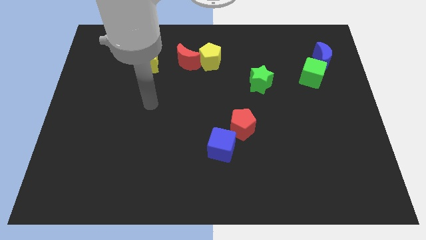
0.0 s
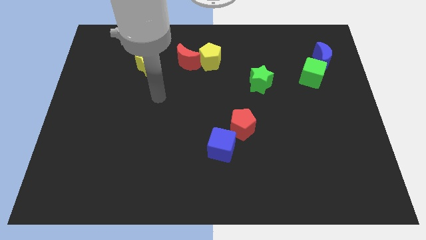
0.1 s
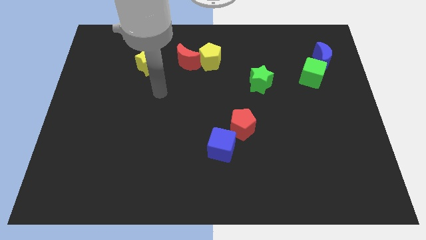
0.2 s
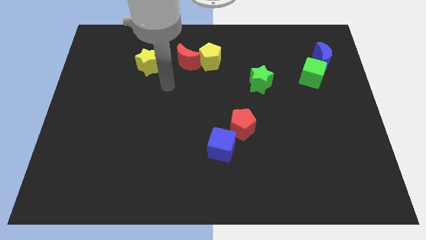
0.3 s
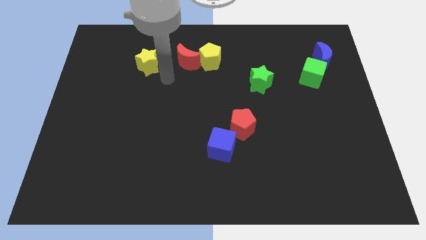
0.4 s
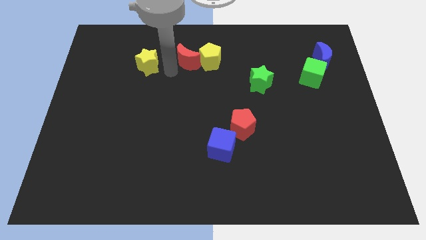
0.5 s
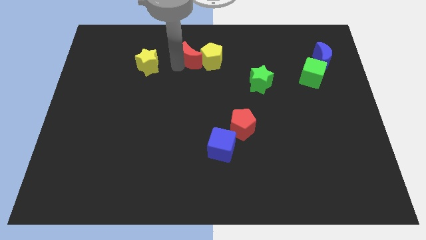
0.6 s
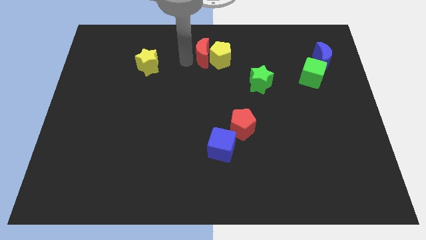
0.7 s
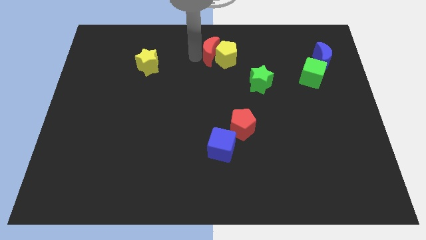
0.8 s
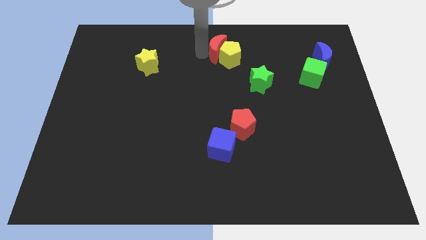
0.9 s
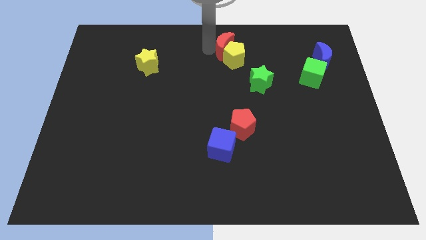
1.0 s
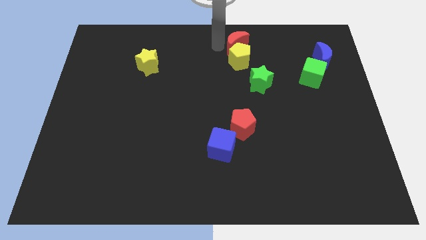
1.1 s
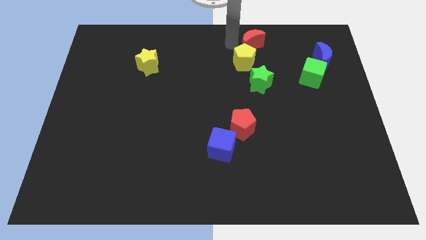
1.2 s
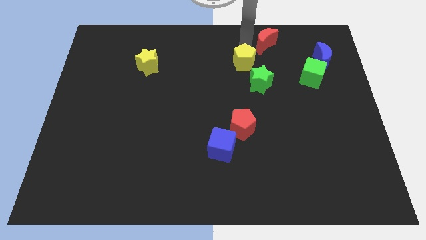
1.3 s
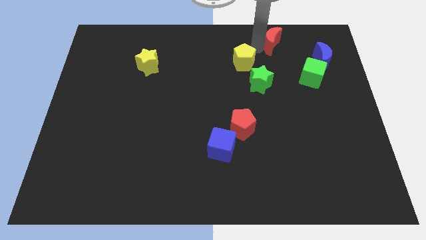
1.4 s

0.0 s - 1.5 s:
pull the yellow pentagon apart from the red moon

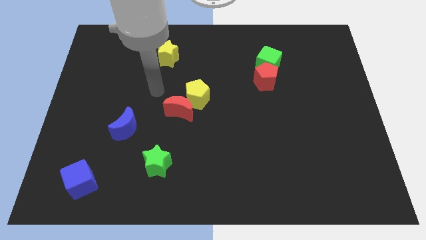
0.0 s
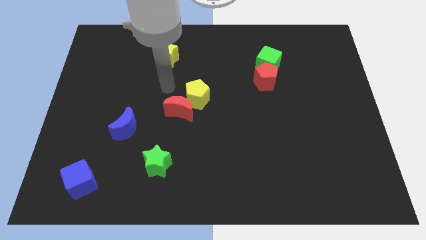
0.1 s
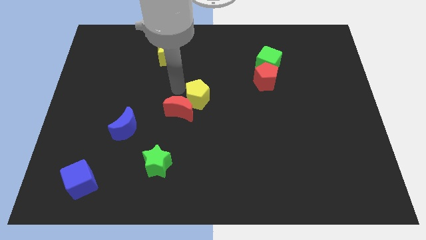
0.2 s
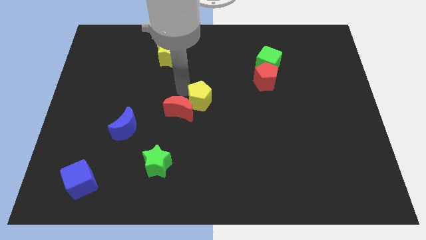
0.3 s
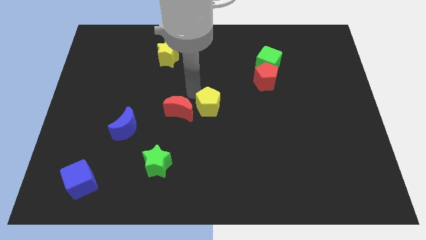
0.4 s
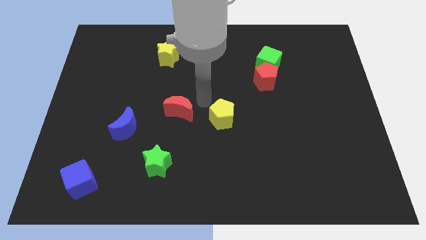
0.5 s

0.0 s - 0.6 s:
pull the red moon apart from the yellow pentagon

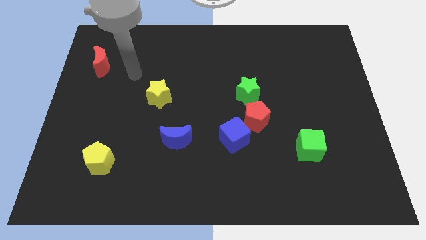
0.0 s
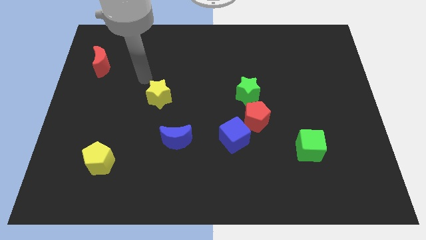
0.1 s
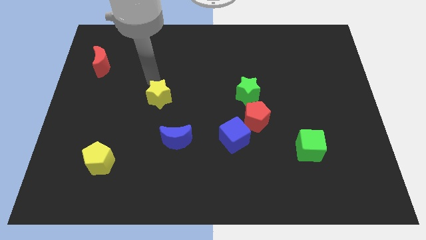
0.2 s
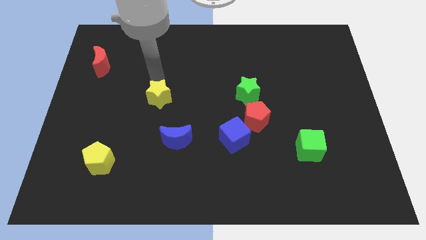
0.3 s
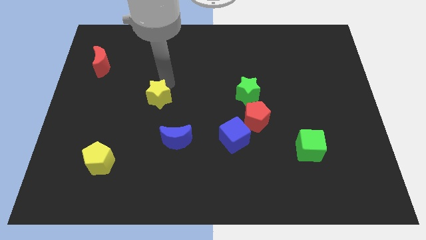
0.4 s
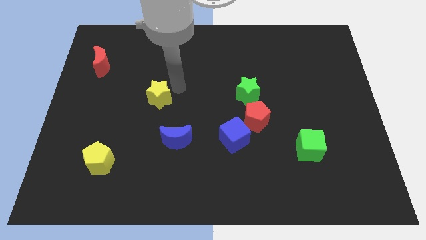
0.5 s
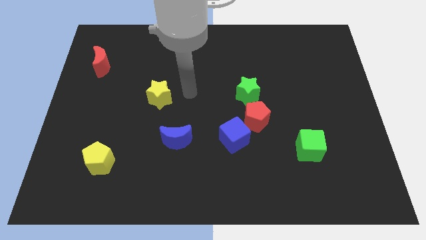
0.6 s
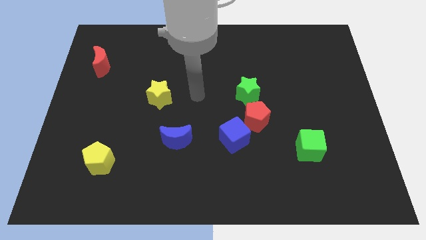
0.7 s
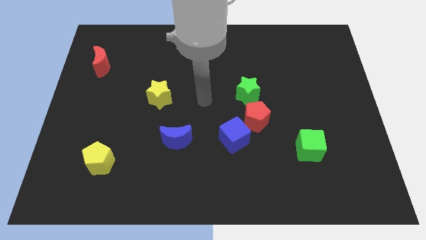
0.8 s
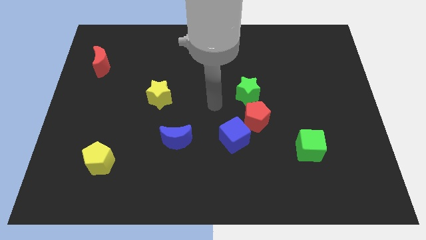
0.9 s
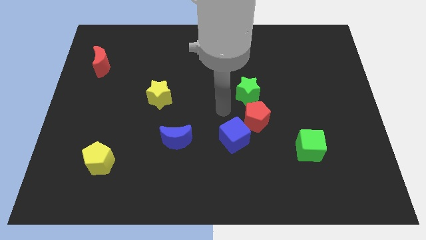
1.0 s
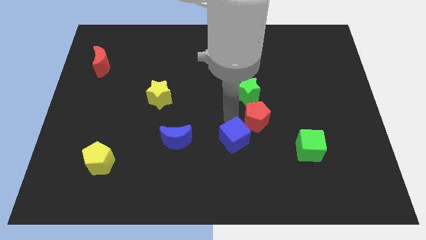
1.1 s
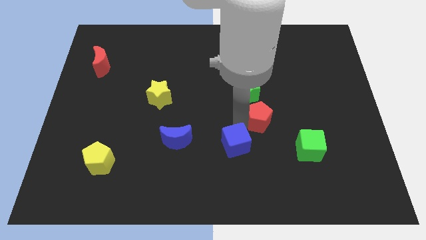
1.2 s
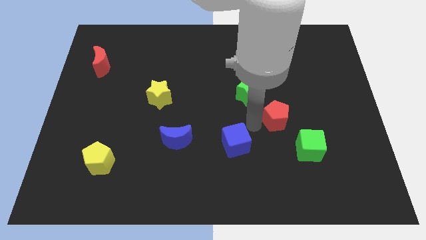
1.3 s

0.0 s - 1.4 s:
move the blue cube away from the red pentagon

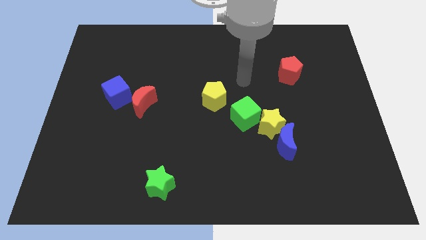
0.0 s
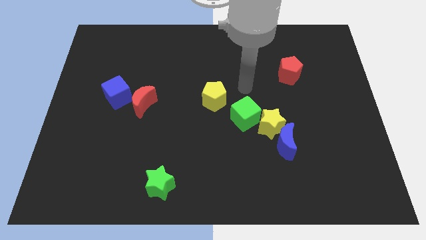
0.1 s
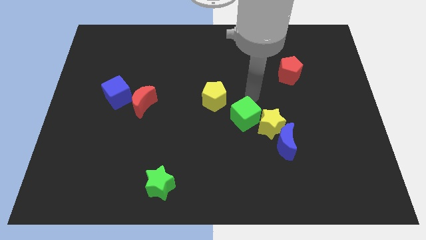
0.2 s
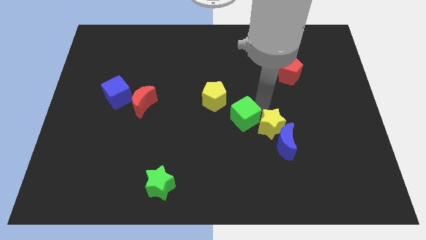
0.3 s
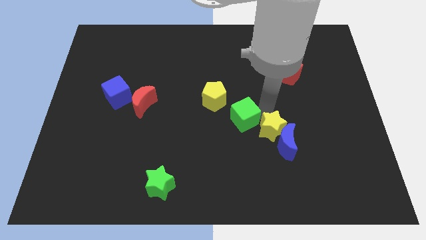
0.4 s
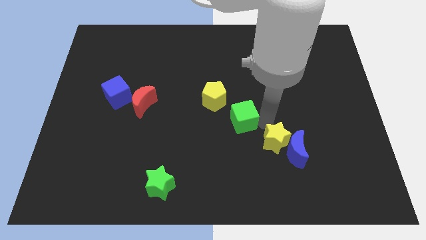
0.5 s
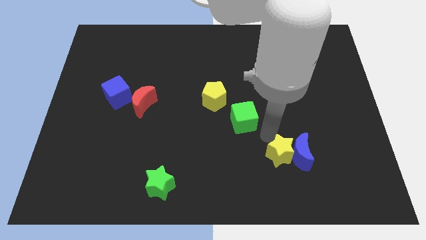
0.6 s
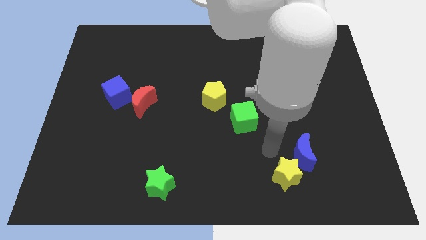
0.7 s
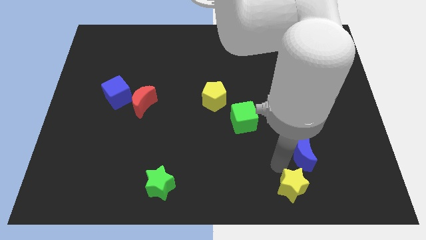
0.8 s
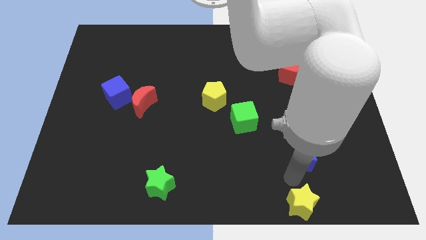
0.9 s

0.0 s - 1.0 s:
pull the blue moon apart from the yellow star

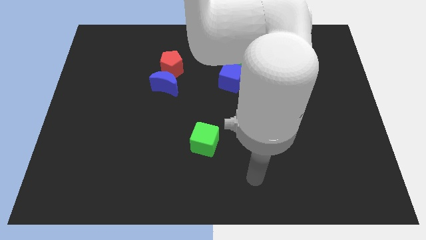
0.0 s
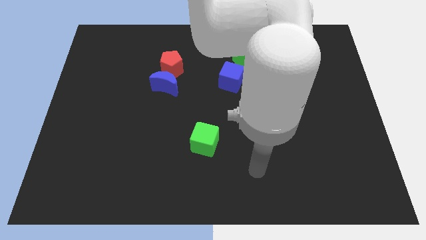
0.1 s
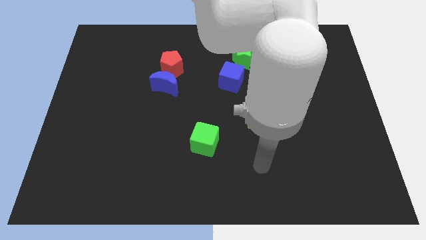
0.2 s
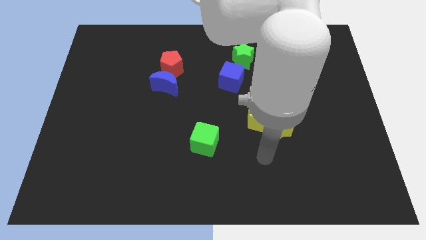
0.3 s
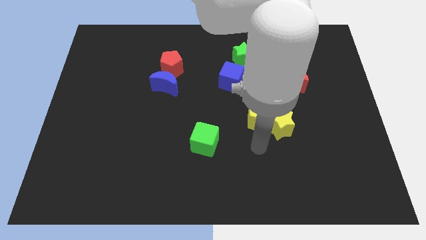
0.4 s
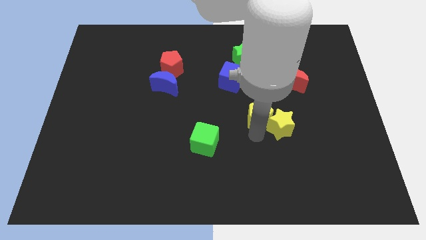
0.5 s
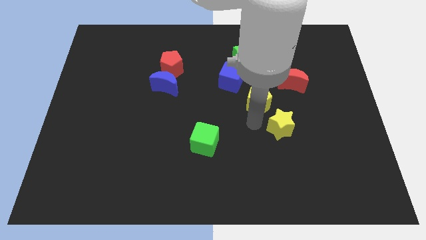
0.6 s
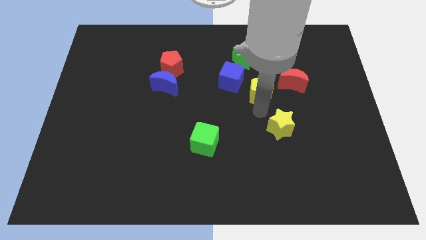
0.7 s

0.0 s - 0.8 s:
separate the yellow star from the yellow pentagon

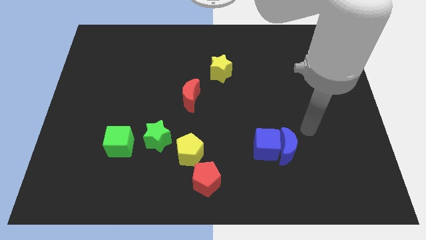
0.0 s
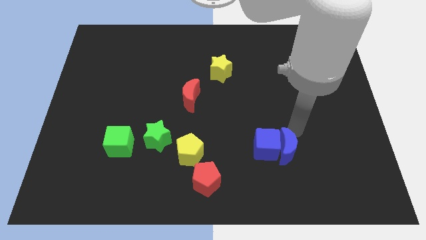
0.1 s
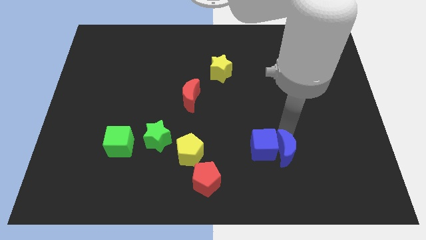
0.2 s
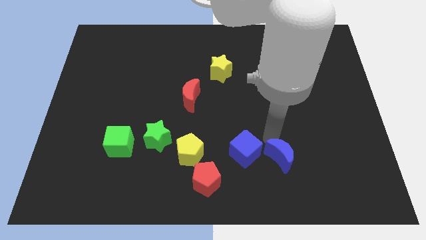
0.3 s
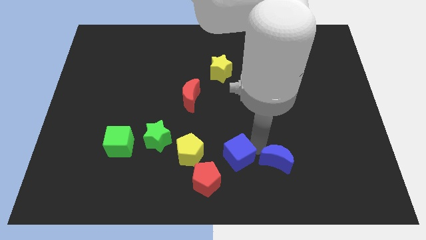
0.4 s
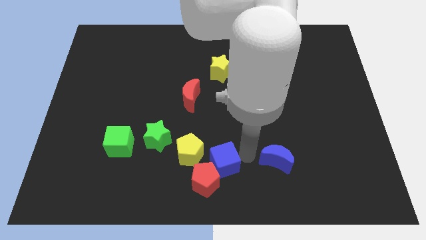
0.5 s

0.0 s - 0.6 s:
pull the blue moon apart from the blue cube

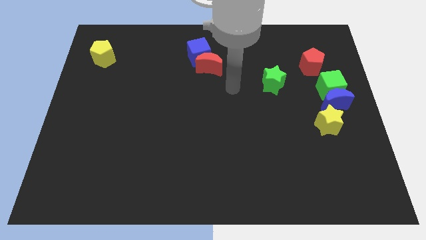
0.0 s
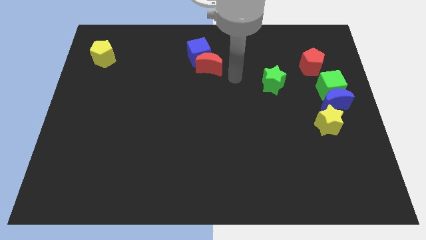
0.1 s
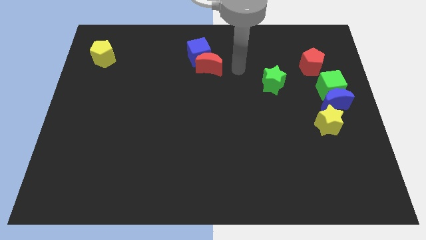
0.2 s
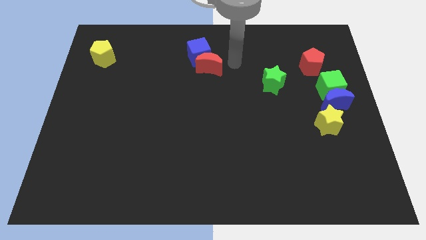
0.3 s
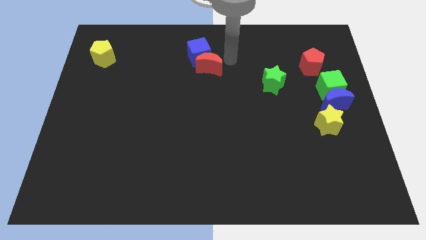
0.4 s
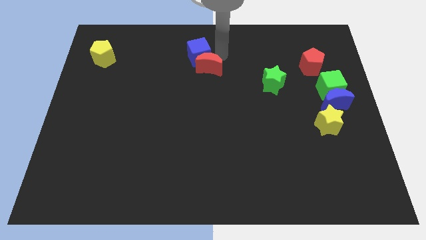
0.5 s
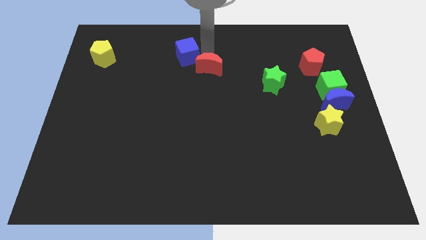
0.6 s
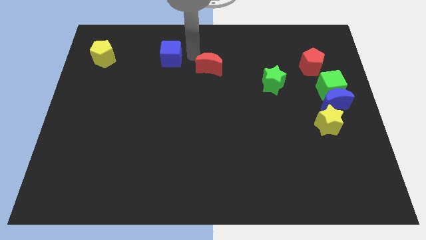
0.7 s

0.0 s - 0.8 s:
pull the red moon apart from the blue cube

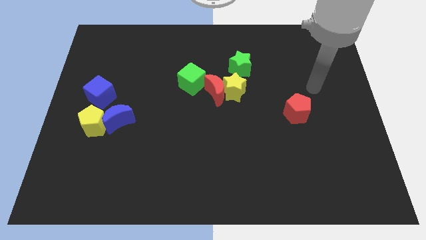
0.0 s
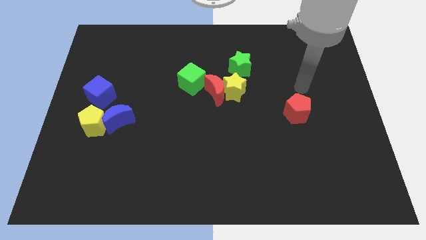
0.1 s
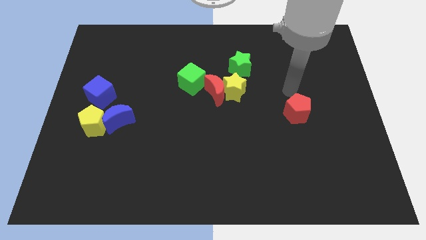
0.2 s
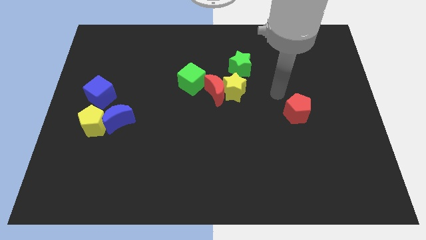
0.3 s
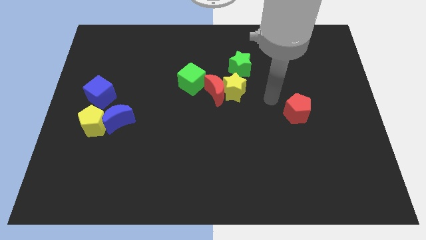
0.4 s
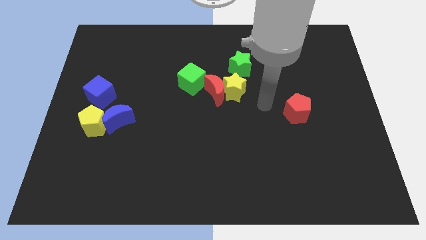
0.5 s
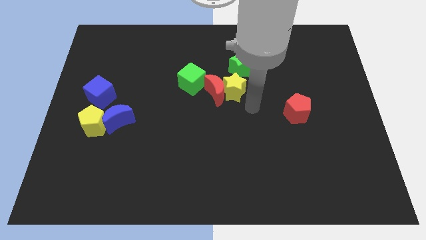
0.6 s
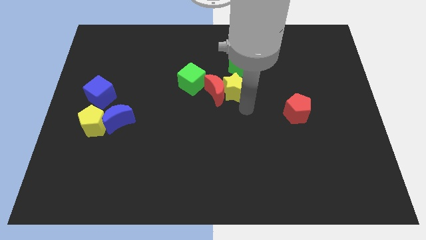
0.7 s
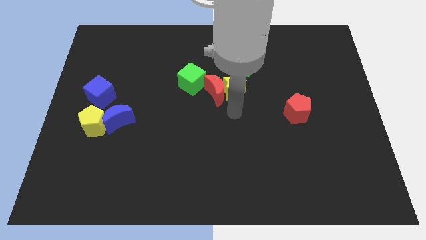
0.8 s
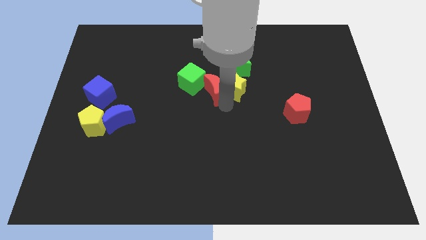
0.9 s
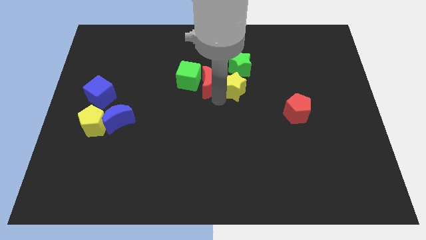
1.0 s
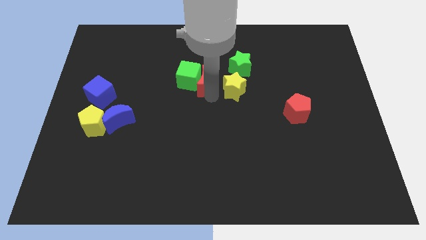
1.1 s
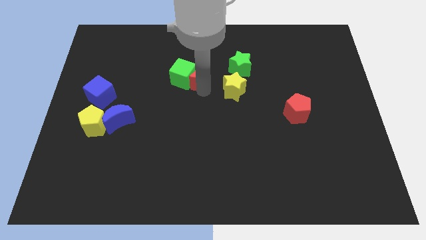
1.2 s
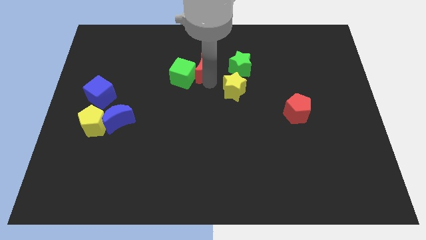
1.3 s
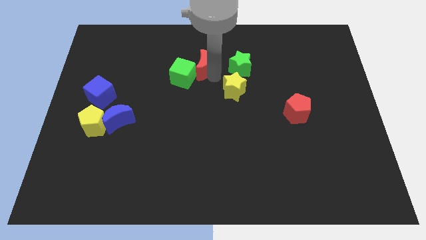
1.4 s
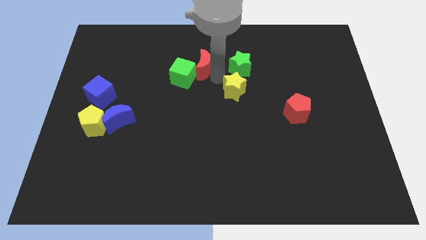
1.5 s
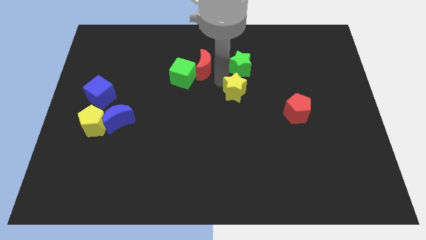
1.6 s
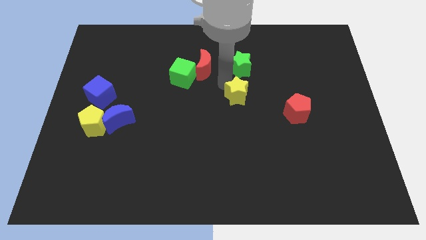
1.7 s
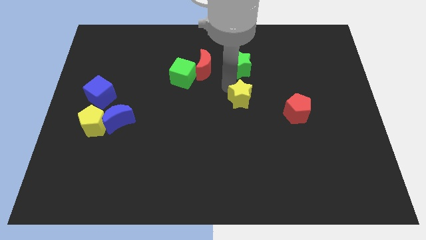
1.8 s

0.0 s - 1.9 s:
move the yellow star away from the red moon and green star

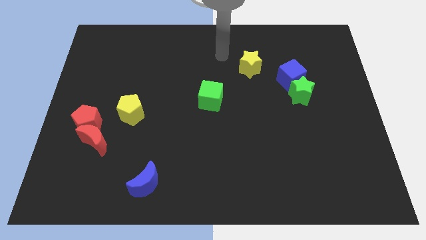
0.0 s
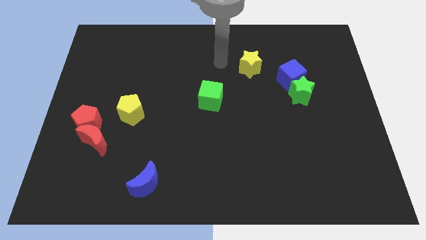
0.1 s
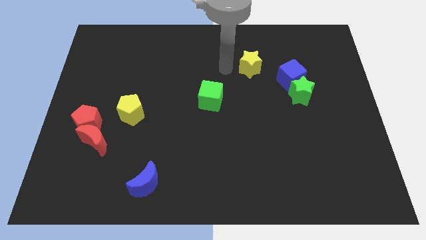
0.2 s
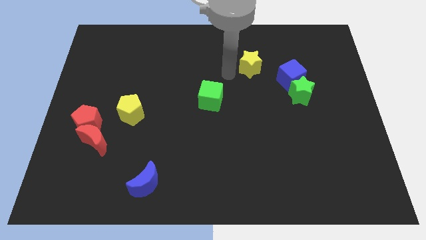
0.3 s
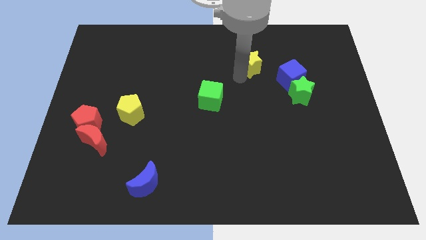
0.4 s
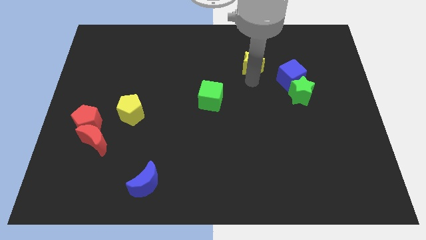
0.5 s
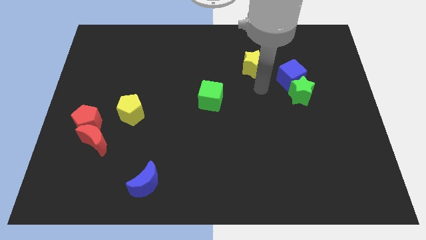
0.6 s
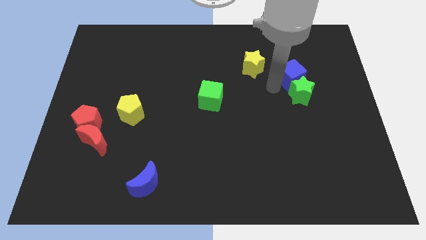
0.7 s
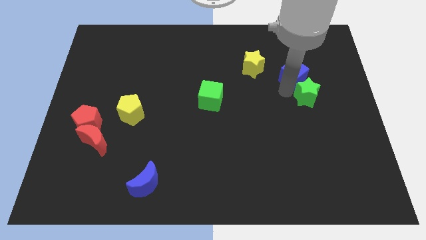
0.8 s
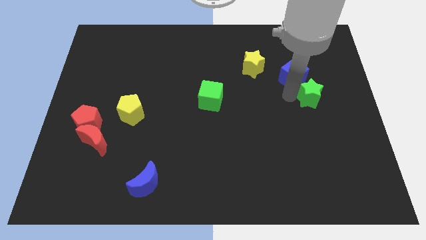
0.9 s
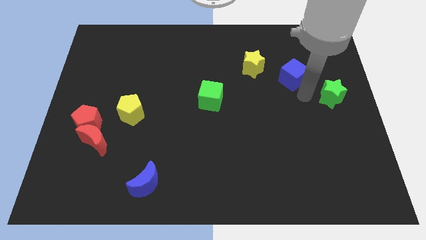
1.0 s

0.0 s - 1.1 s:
pull the blue cube apart from the green star
